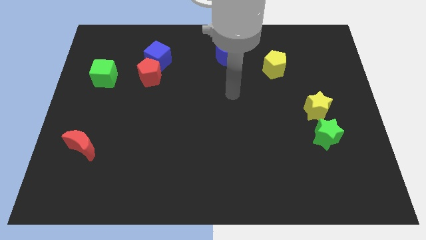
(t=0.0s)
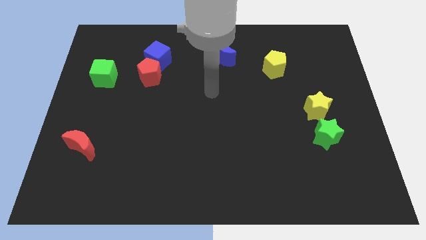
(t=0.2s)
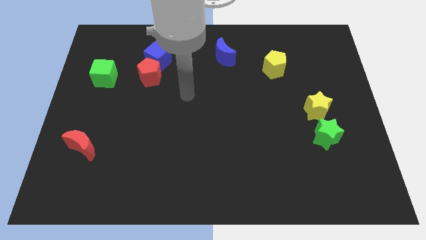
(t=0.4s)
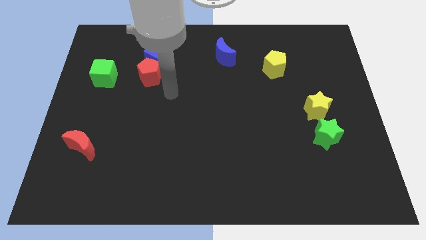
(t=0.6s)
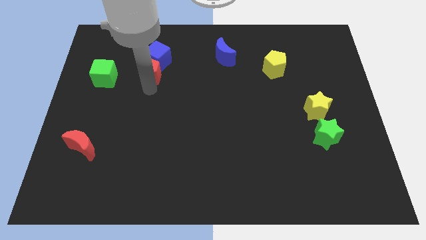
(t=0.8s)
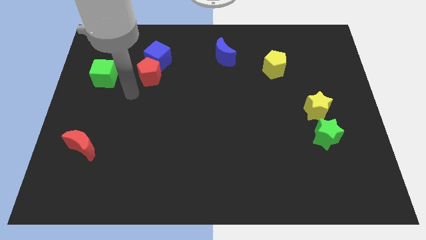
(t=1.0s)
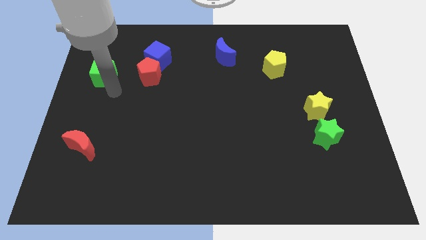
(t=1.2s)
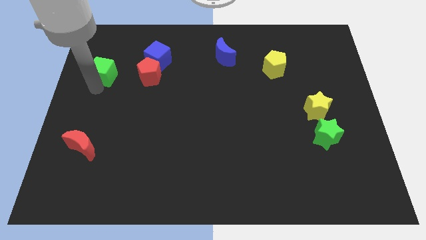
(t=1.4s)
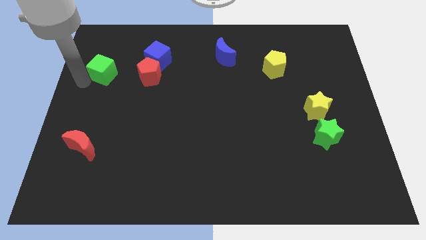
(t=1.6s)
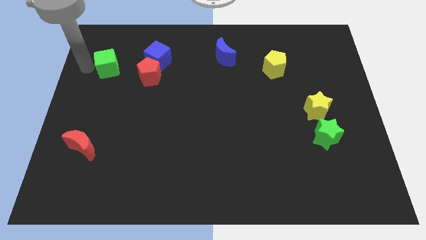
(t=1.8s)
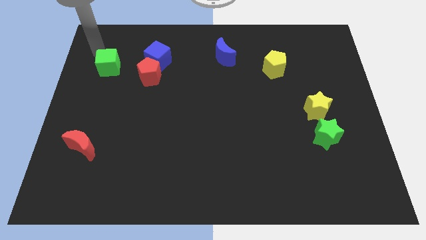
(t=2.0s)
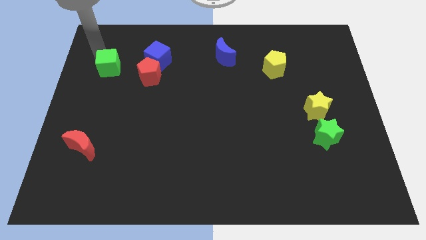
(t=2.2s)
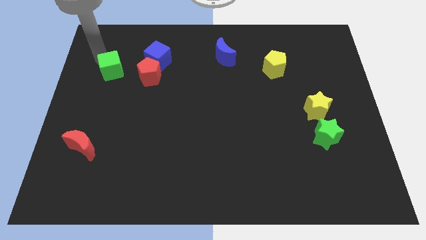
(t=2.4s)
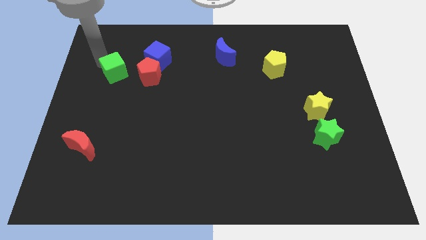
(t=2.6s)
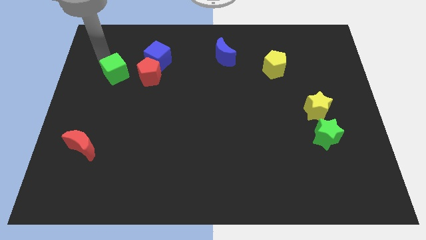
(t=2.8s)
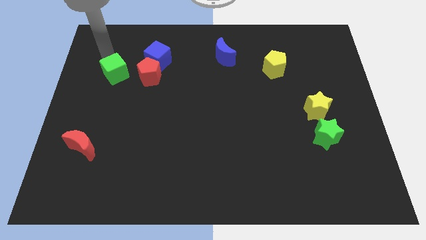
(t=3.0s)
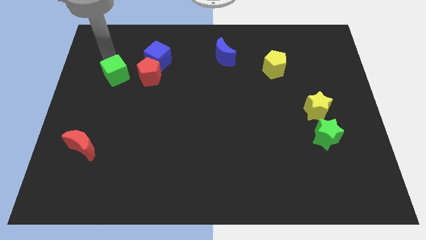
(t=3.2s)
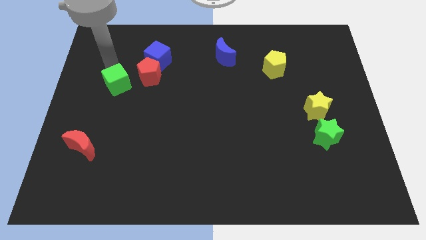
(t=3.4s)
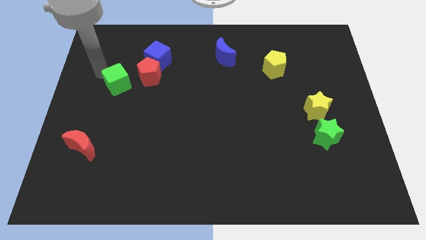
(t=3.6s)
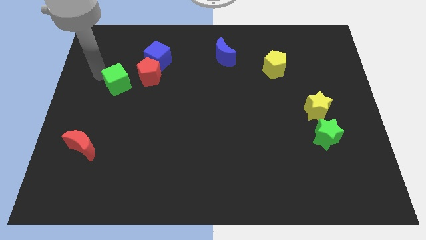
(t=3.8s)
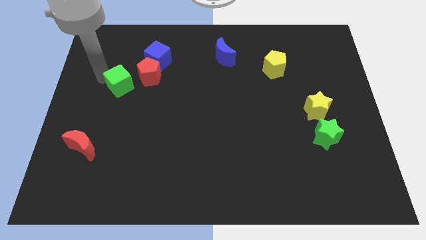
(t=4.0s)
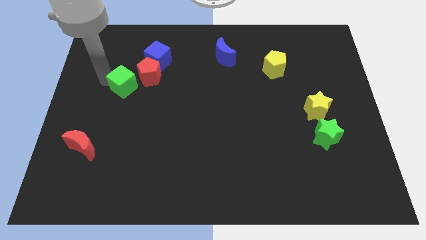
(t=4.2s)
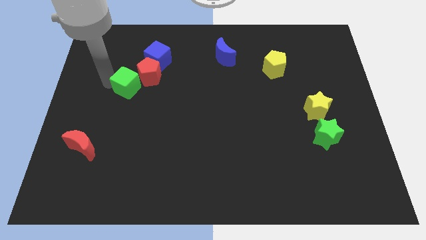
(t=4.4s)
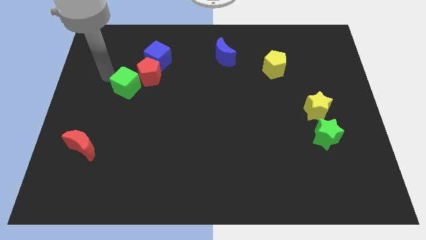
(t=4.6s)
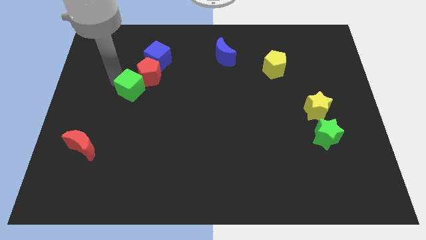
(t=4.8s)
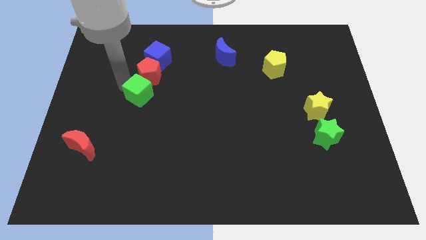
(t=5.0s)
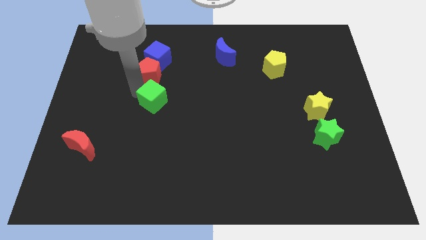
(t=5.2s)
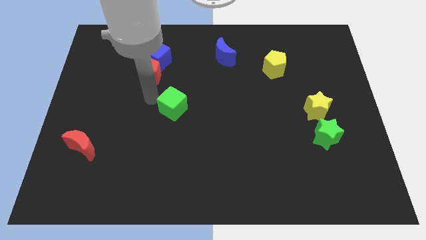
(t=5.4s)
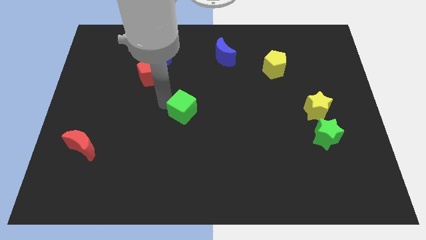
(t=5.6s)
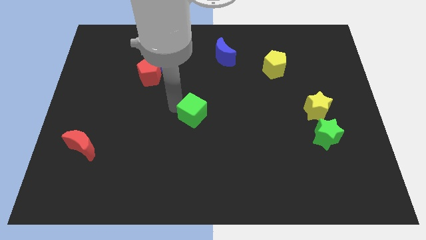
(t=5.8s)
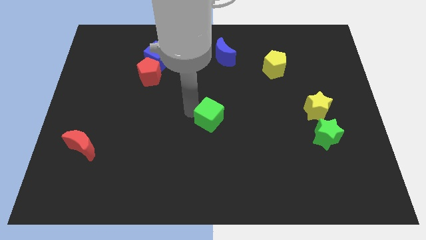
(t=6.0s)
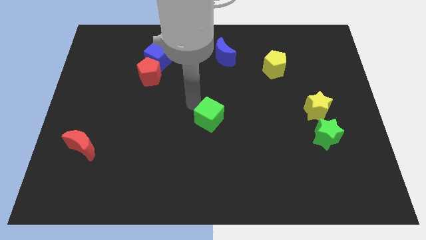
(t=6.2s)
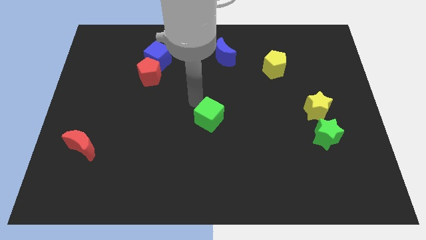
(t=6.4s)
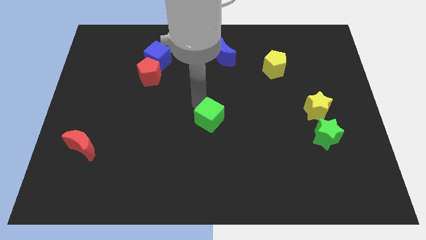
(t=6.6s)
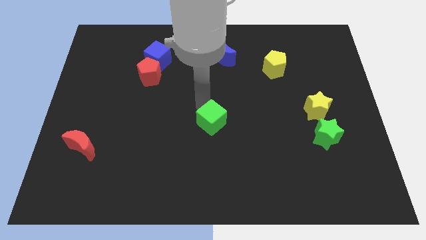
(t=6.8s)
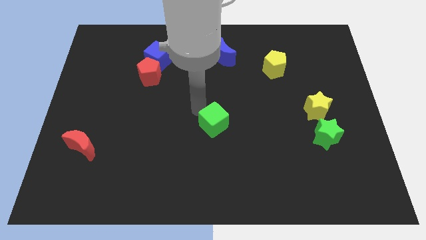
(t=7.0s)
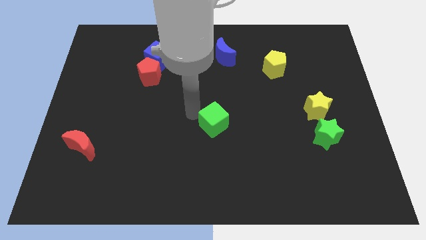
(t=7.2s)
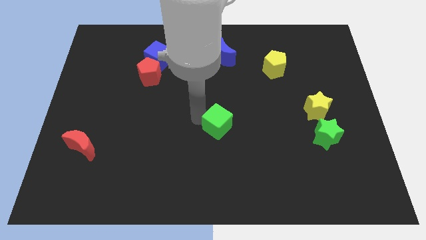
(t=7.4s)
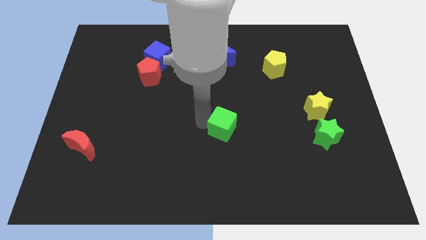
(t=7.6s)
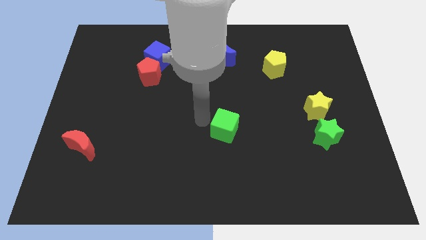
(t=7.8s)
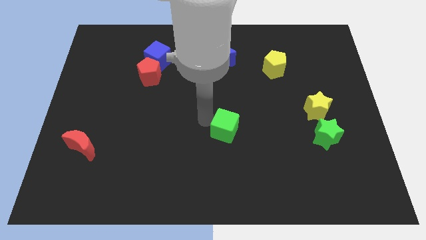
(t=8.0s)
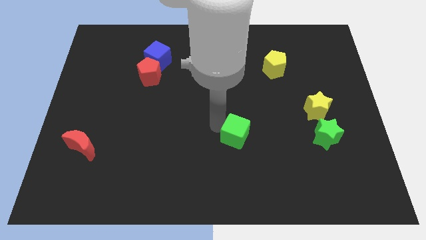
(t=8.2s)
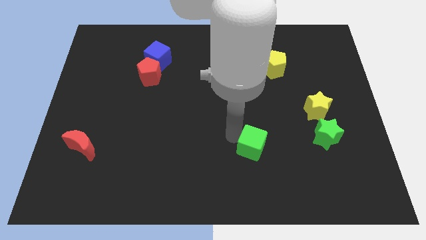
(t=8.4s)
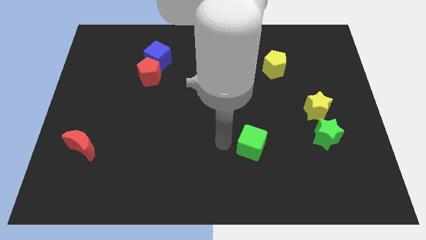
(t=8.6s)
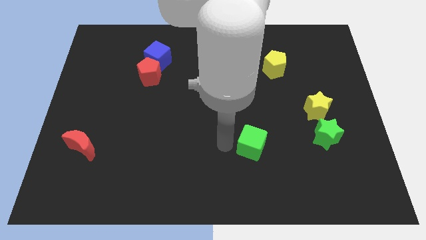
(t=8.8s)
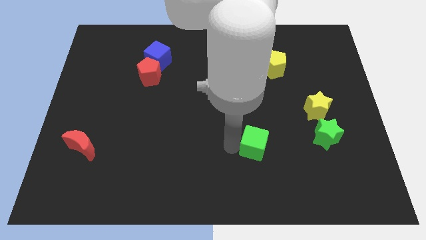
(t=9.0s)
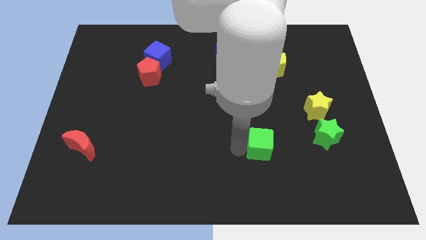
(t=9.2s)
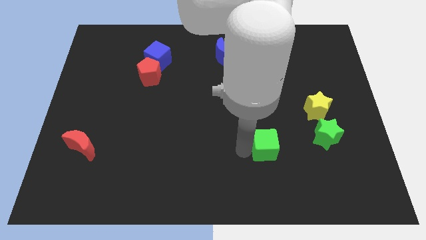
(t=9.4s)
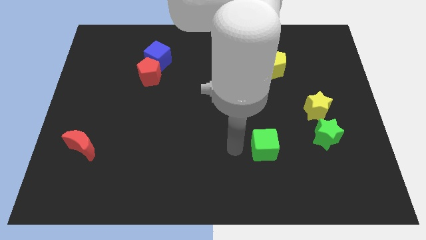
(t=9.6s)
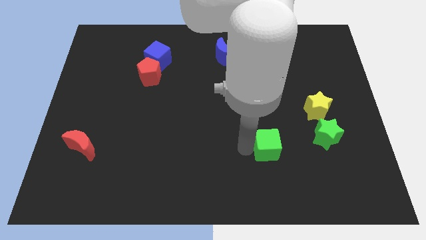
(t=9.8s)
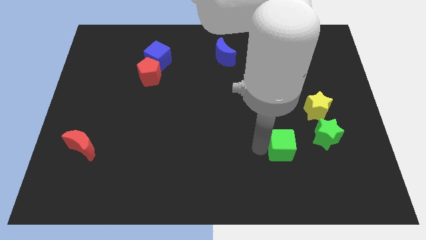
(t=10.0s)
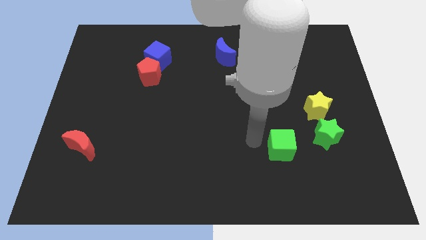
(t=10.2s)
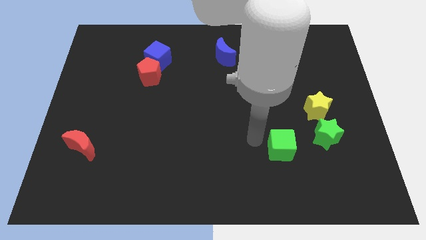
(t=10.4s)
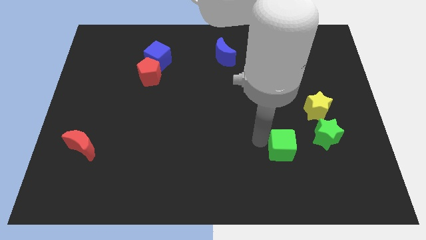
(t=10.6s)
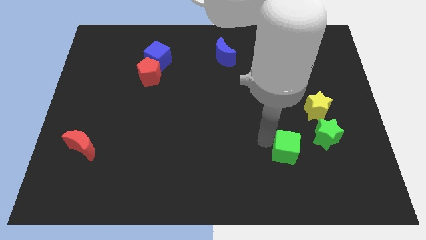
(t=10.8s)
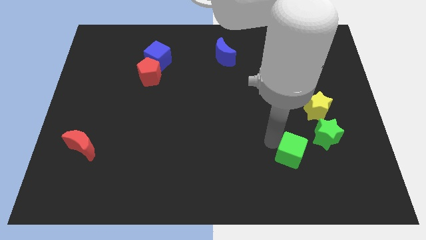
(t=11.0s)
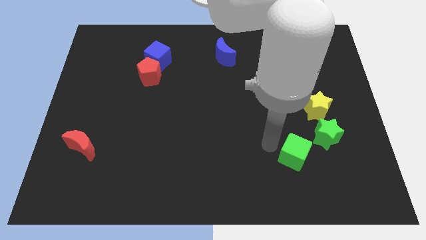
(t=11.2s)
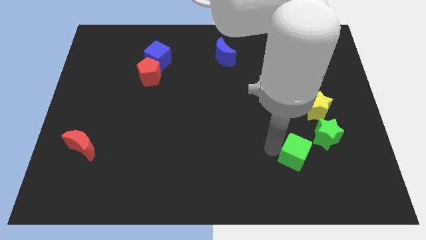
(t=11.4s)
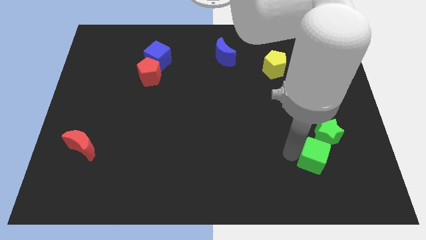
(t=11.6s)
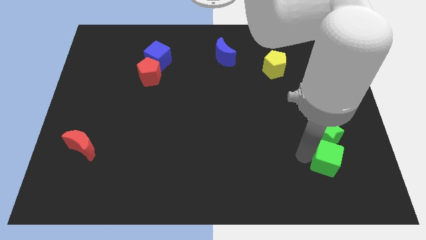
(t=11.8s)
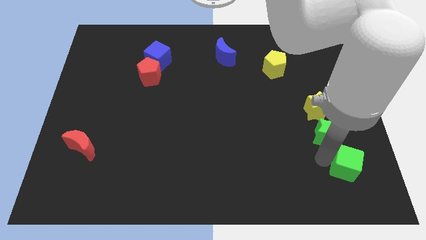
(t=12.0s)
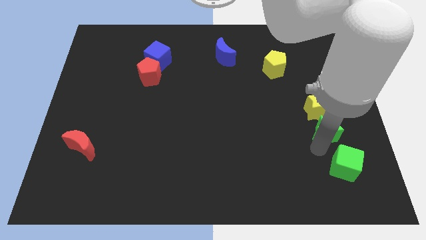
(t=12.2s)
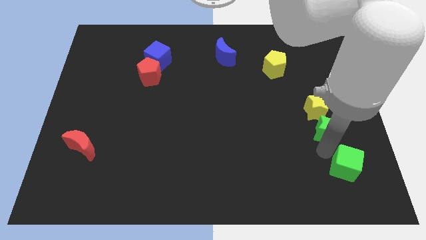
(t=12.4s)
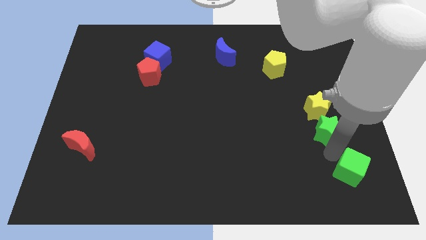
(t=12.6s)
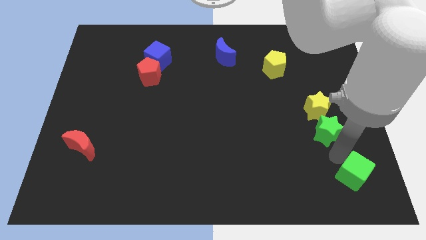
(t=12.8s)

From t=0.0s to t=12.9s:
put the green cube to the bottom right
